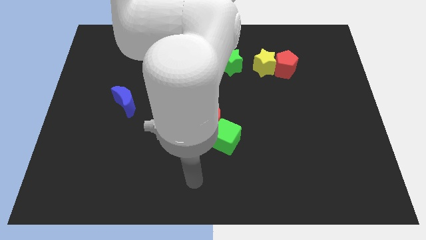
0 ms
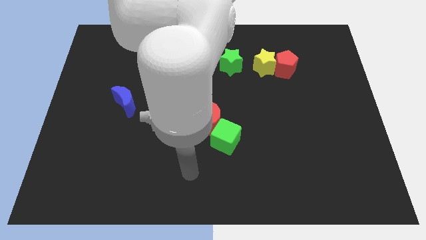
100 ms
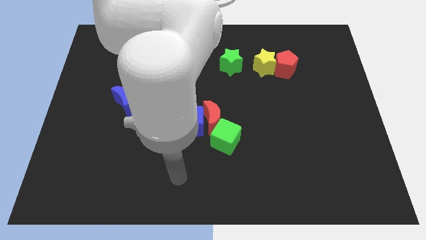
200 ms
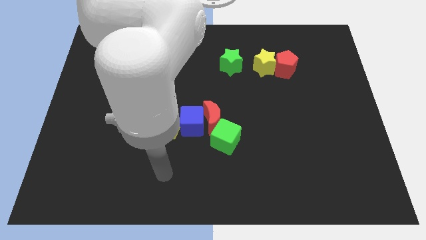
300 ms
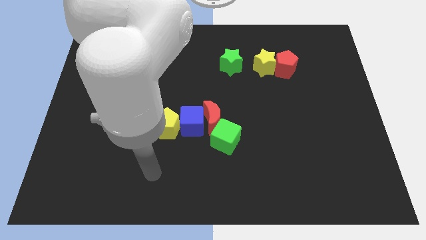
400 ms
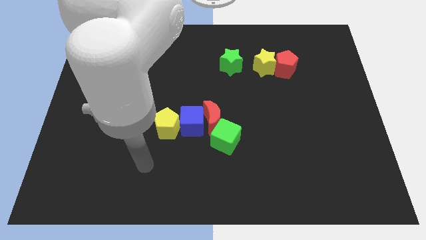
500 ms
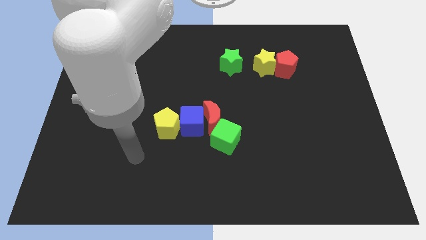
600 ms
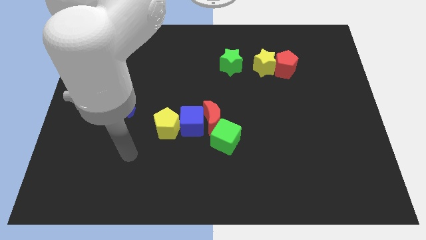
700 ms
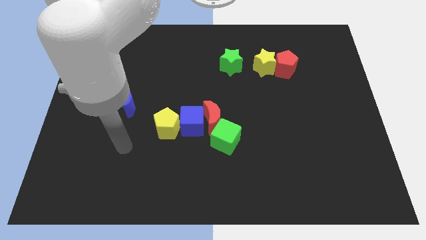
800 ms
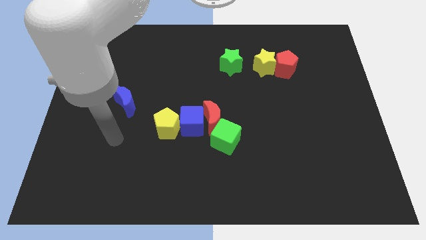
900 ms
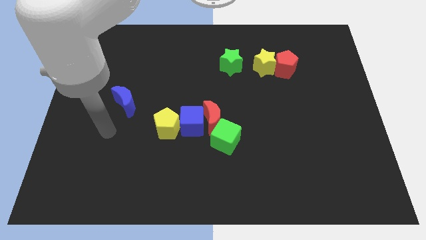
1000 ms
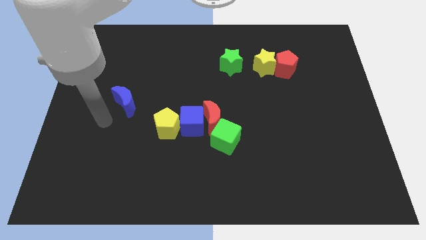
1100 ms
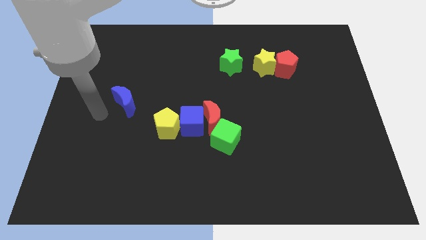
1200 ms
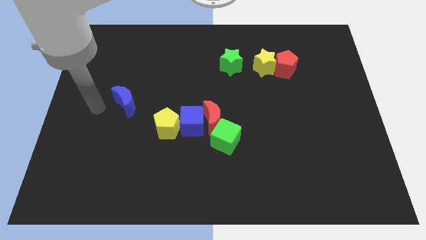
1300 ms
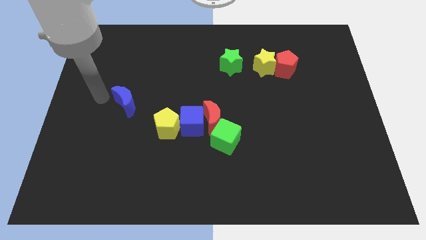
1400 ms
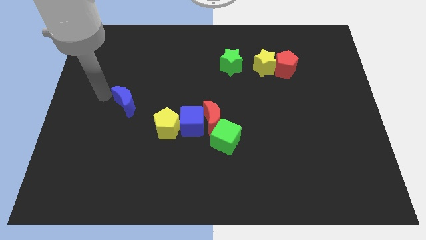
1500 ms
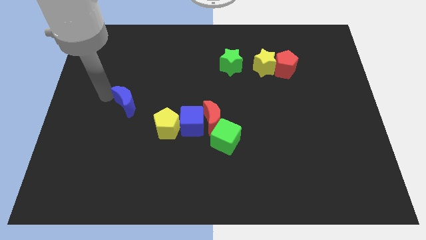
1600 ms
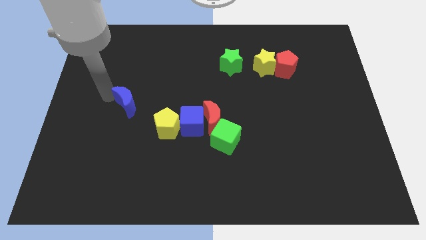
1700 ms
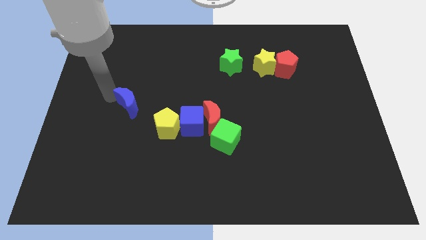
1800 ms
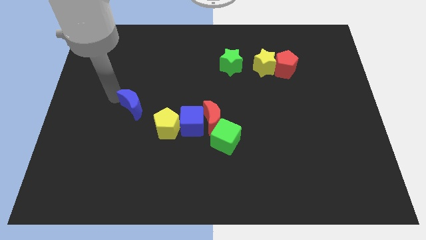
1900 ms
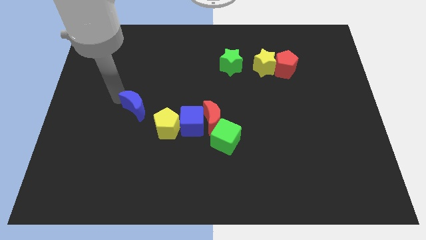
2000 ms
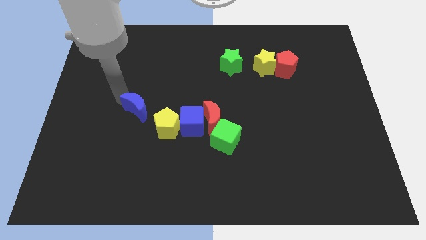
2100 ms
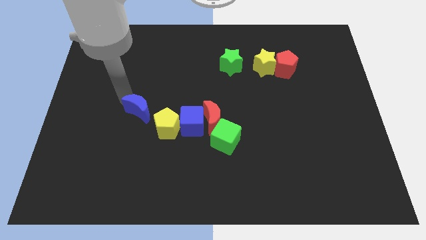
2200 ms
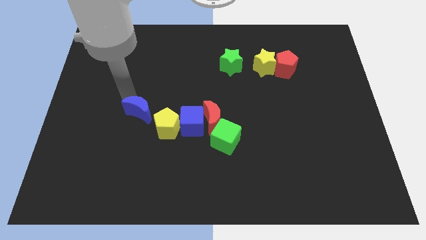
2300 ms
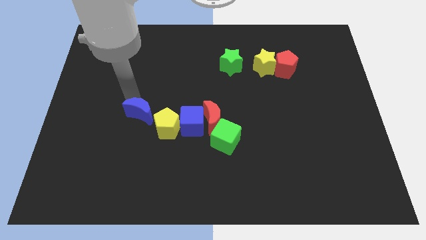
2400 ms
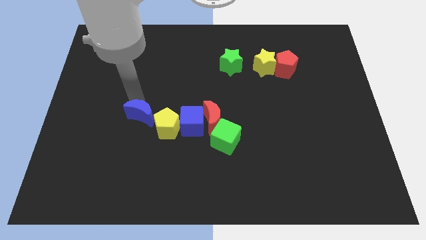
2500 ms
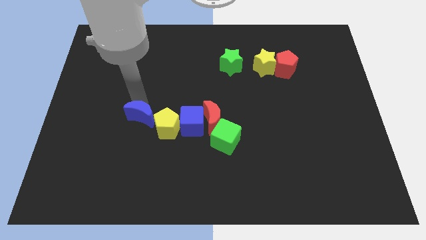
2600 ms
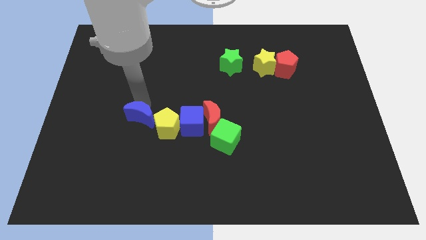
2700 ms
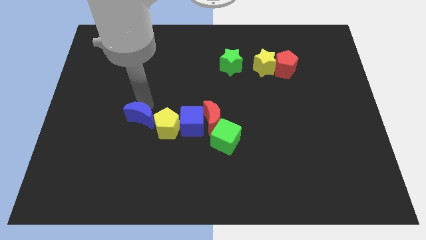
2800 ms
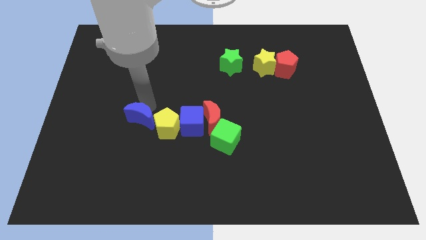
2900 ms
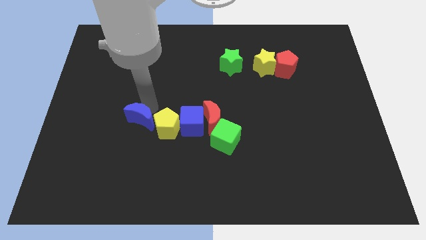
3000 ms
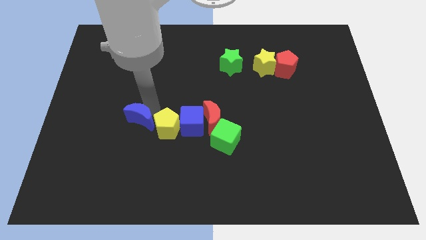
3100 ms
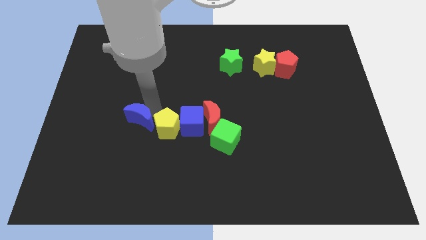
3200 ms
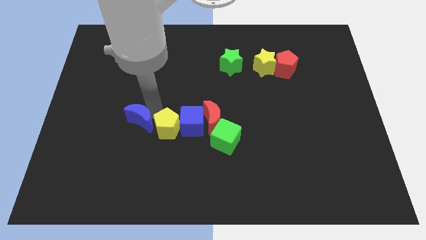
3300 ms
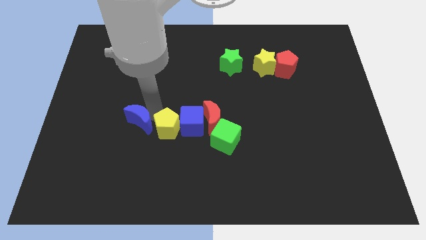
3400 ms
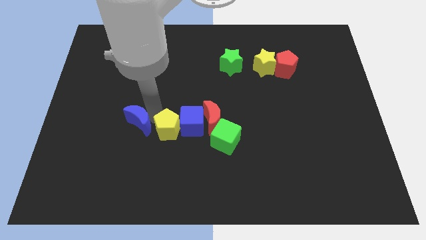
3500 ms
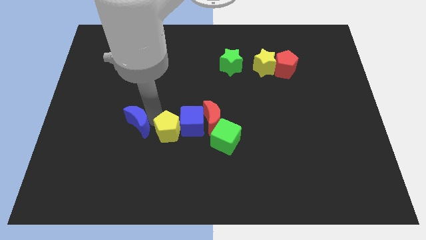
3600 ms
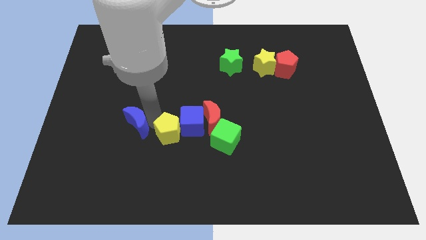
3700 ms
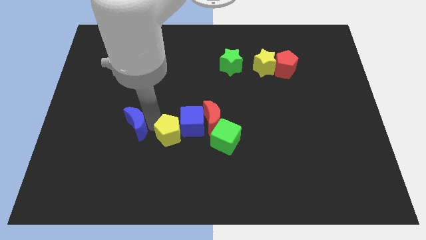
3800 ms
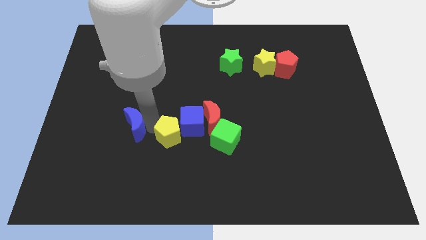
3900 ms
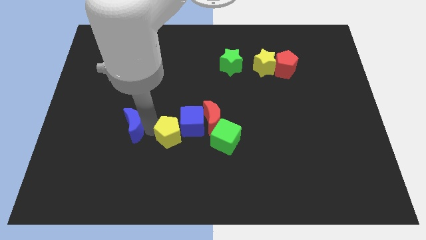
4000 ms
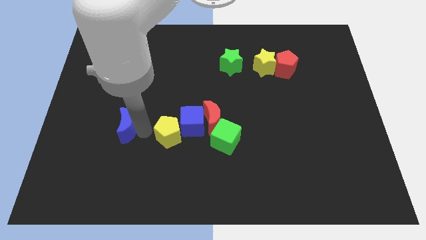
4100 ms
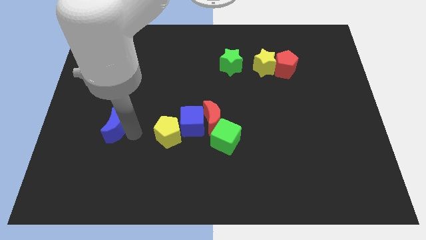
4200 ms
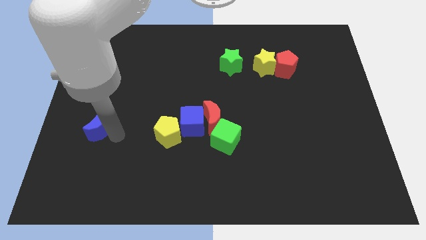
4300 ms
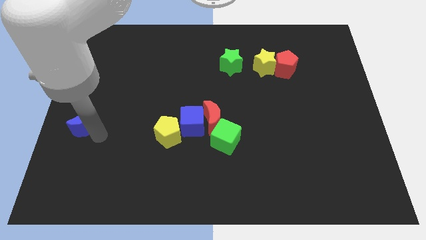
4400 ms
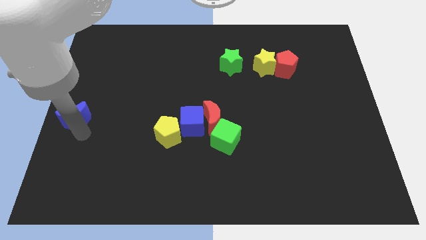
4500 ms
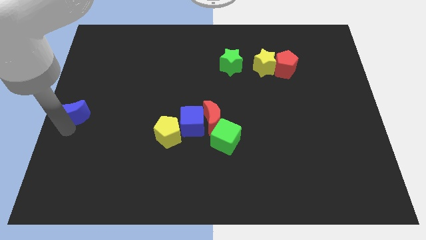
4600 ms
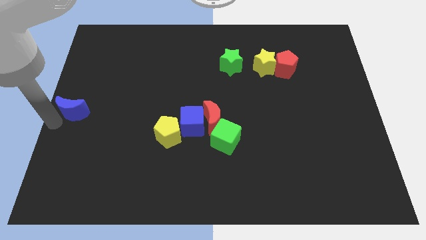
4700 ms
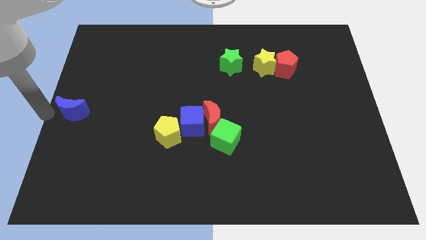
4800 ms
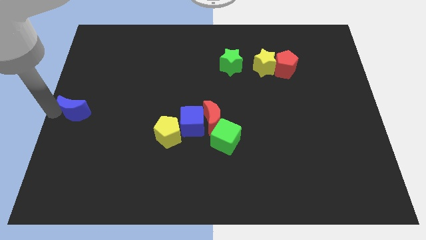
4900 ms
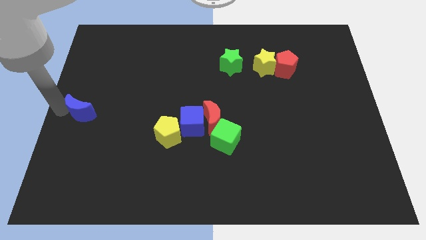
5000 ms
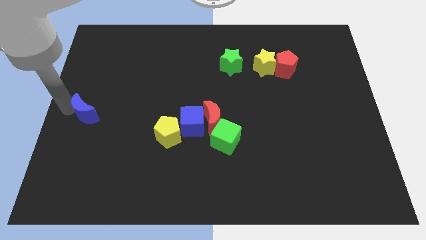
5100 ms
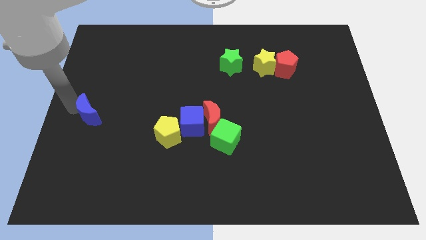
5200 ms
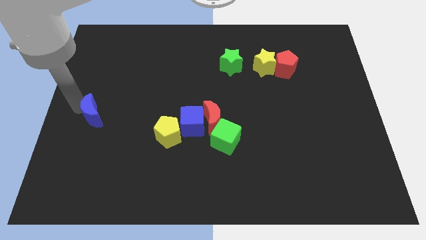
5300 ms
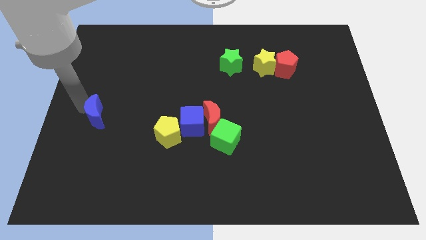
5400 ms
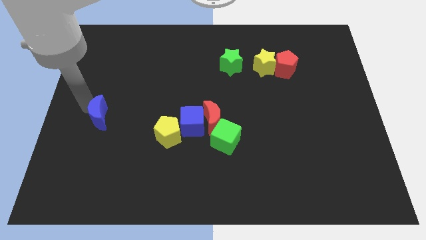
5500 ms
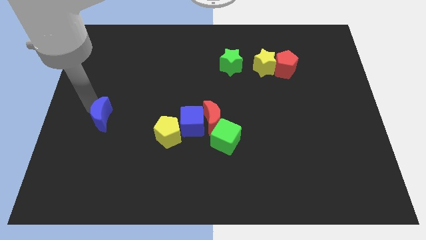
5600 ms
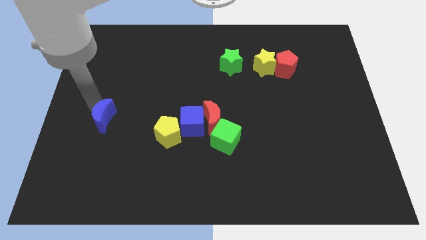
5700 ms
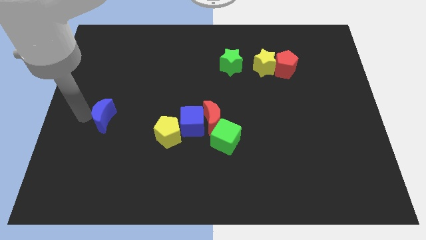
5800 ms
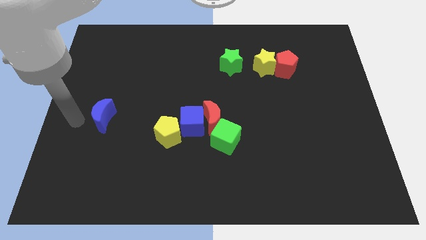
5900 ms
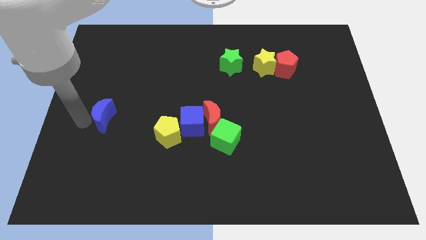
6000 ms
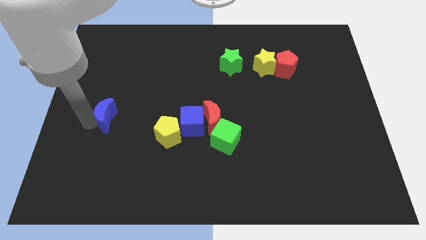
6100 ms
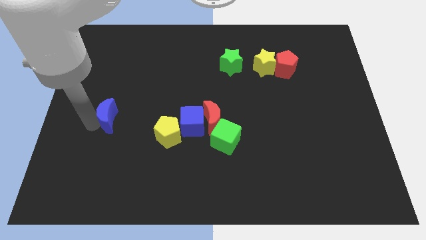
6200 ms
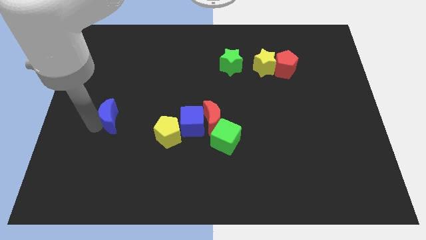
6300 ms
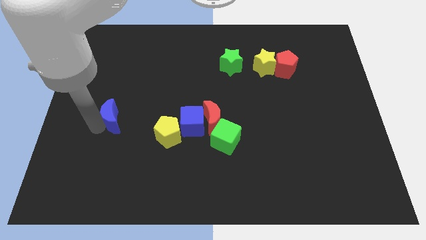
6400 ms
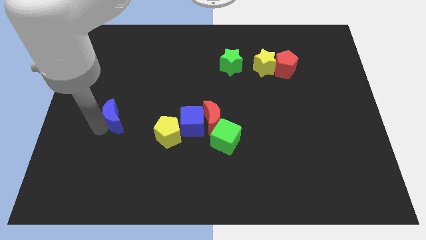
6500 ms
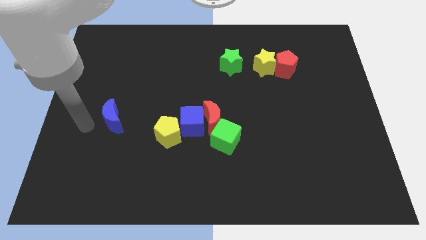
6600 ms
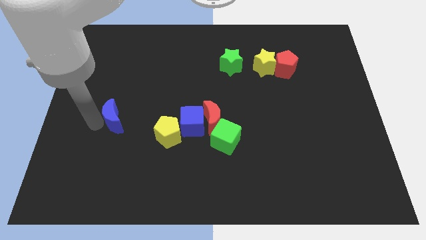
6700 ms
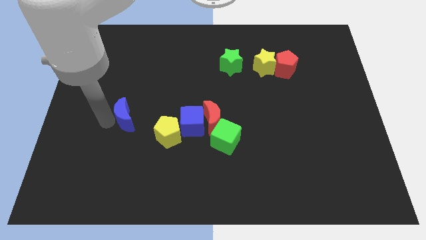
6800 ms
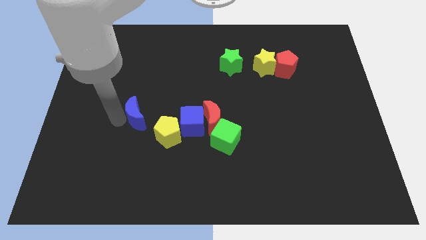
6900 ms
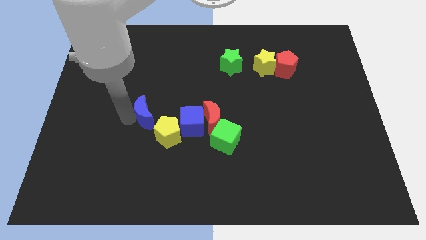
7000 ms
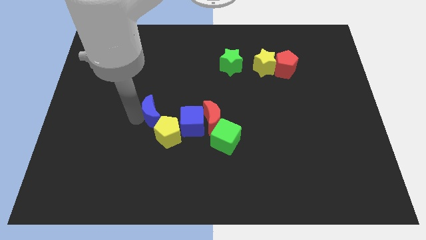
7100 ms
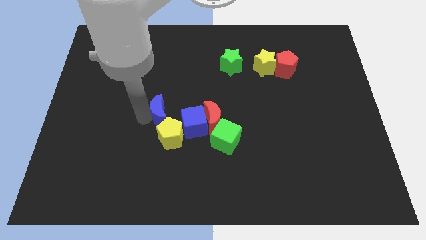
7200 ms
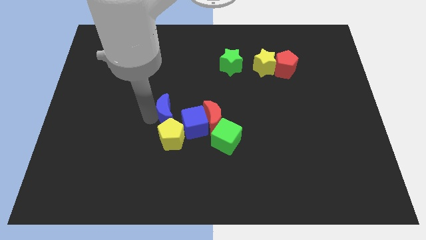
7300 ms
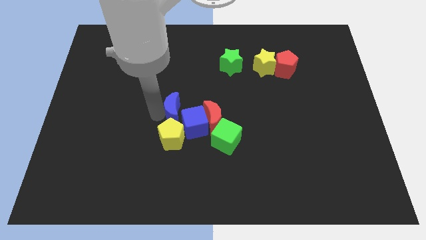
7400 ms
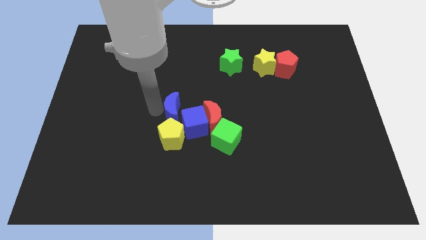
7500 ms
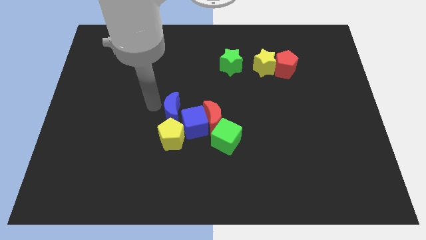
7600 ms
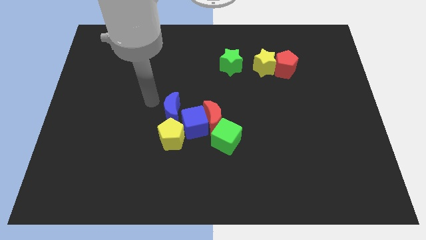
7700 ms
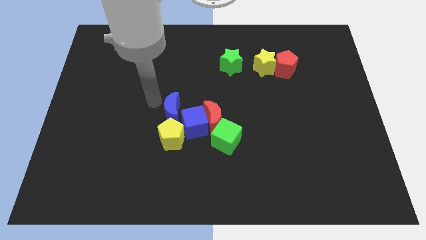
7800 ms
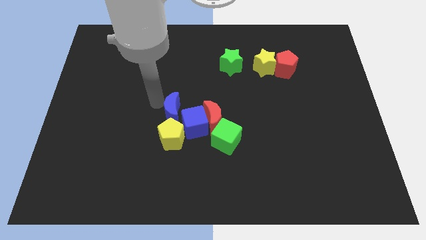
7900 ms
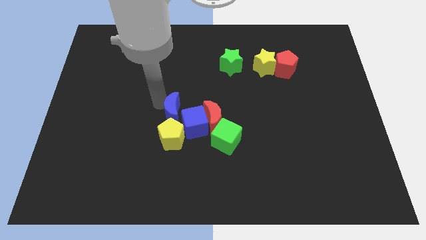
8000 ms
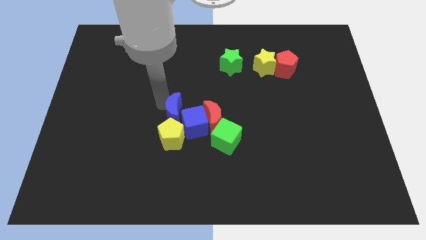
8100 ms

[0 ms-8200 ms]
slide the blue moon close to the blue cube
